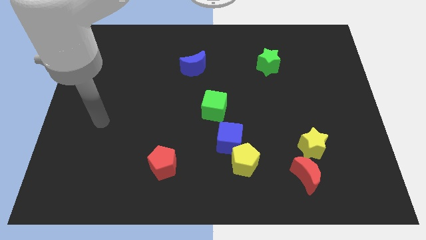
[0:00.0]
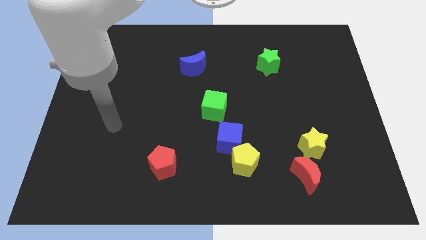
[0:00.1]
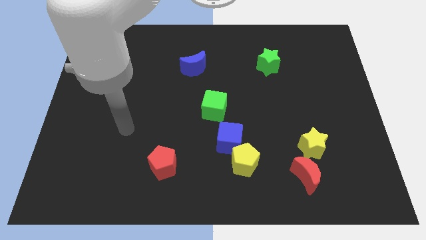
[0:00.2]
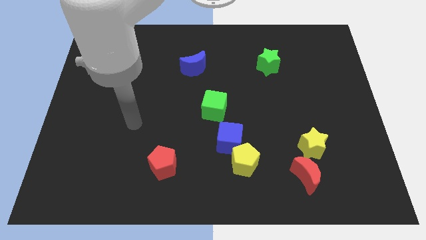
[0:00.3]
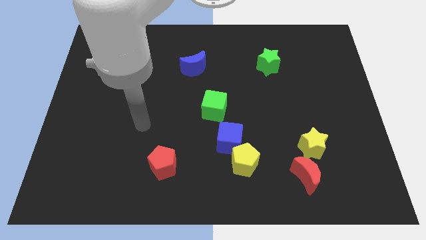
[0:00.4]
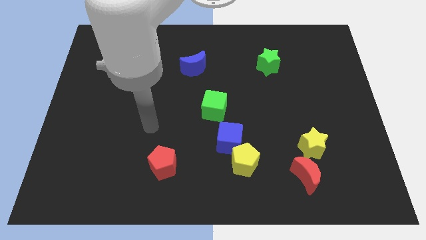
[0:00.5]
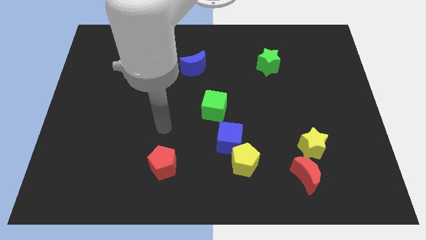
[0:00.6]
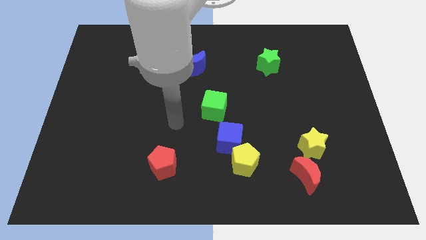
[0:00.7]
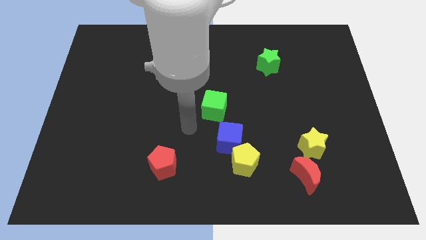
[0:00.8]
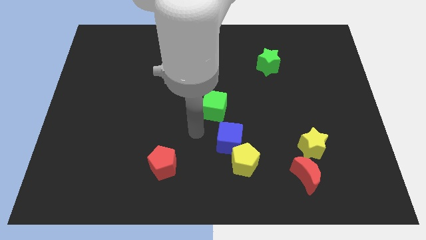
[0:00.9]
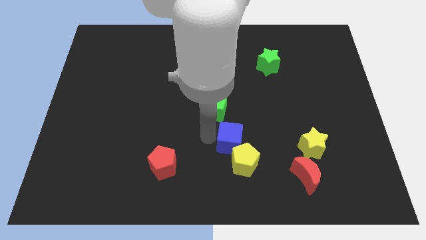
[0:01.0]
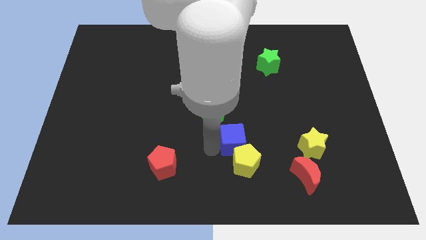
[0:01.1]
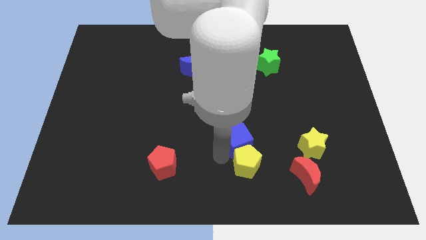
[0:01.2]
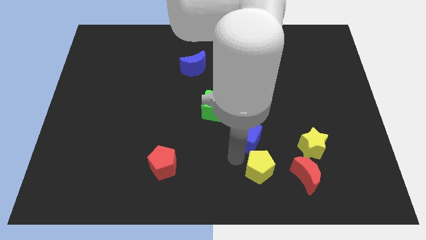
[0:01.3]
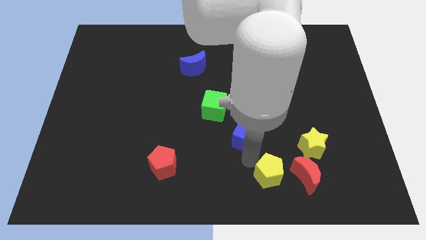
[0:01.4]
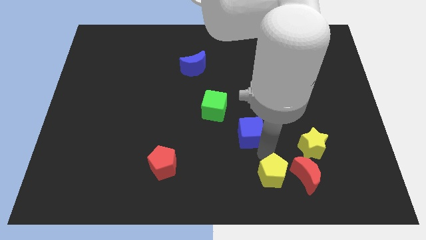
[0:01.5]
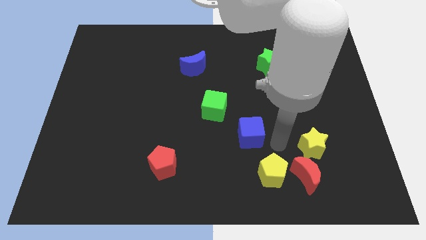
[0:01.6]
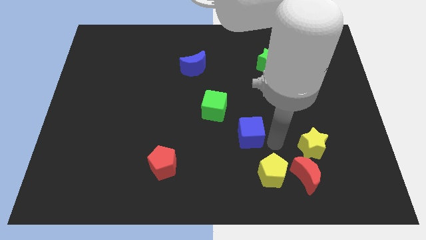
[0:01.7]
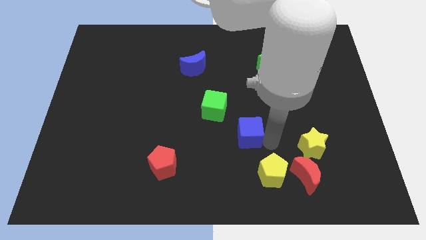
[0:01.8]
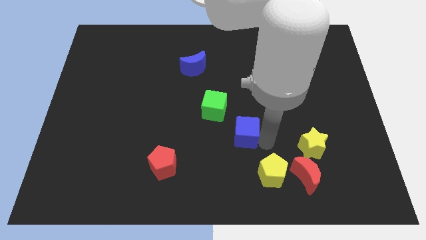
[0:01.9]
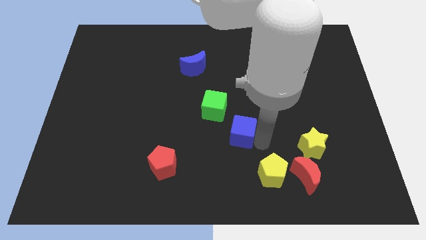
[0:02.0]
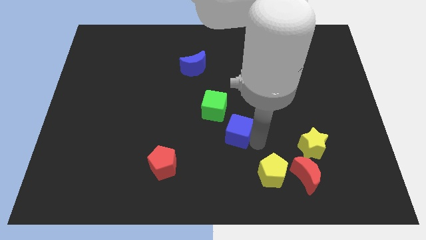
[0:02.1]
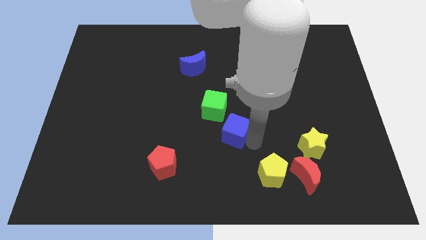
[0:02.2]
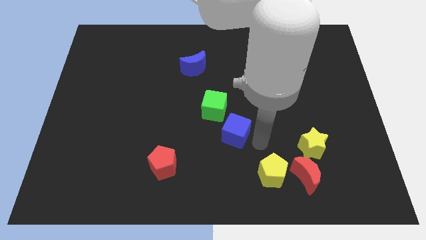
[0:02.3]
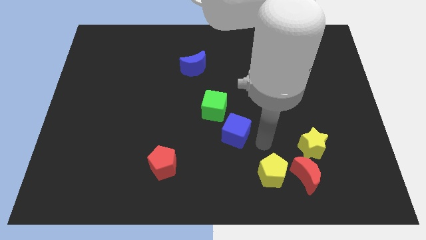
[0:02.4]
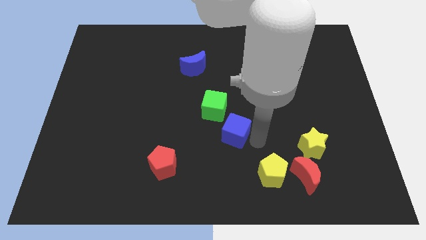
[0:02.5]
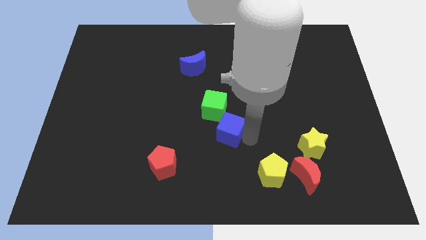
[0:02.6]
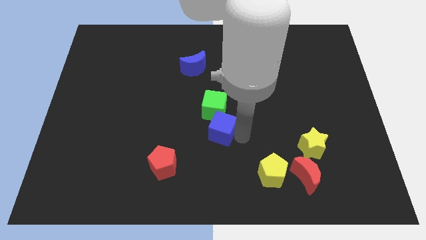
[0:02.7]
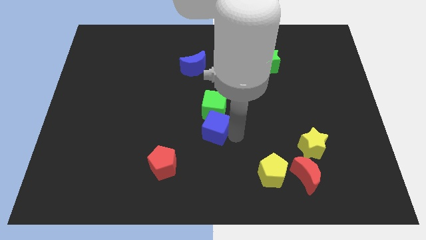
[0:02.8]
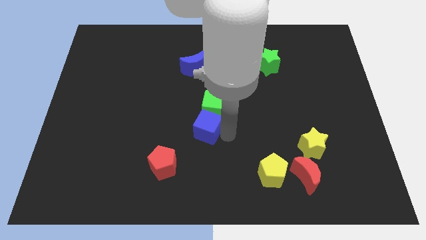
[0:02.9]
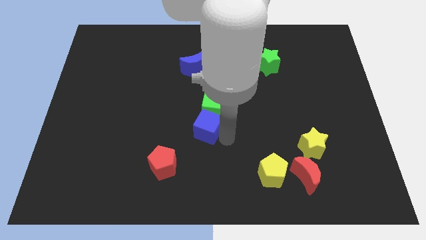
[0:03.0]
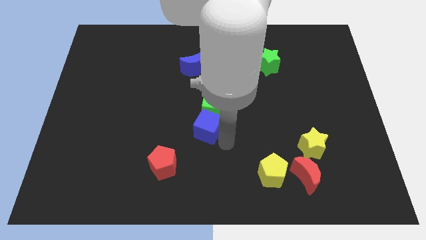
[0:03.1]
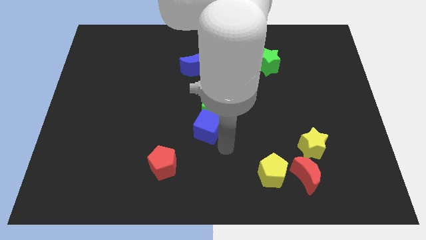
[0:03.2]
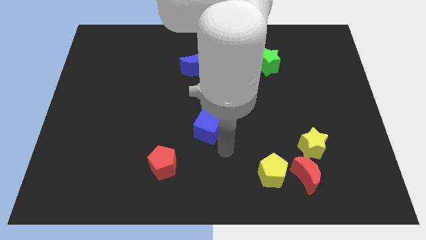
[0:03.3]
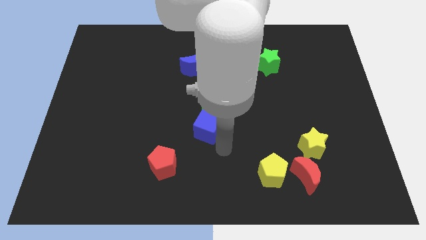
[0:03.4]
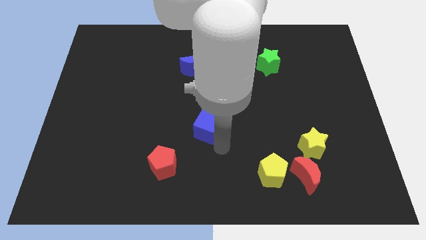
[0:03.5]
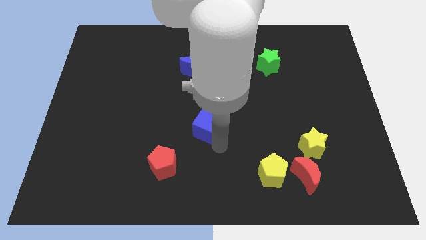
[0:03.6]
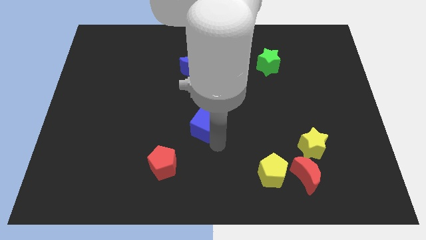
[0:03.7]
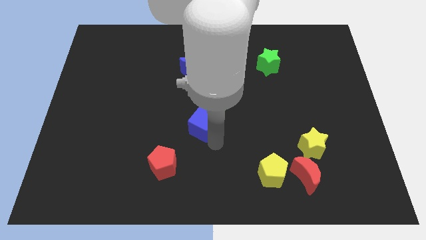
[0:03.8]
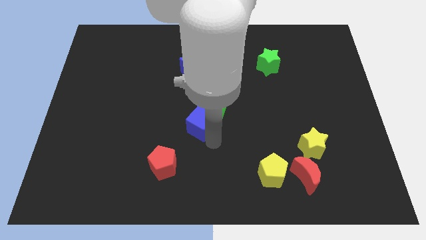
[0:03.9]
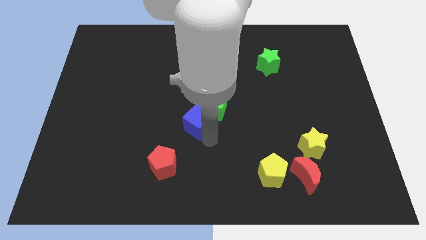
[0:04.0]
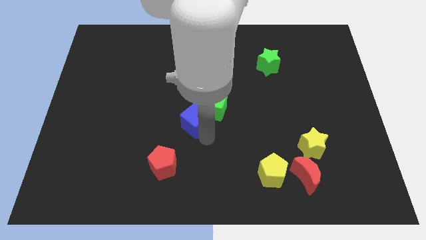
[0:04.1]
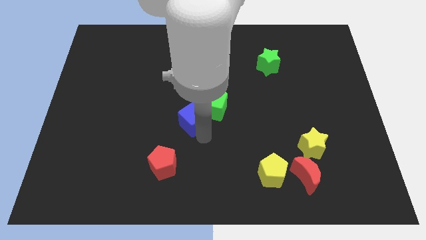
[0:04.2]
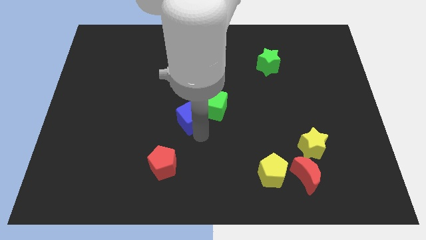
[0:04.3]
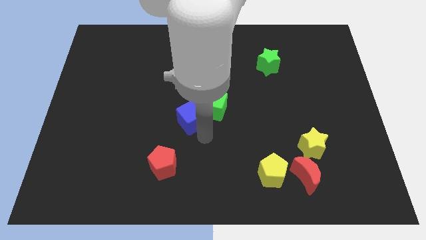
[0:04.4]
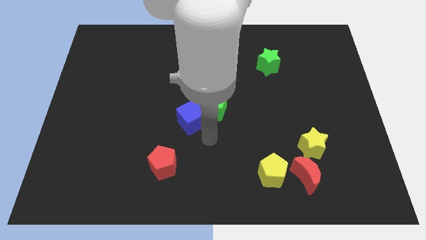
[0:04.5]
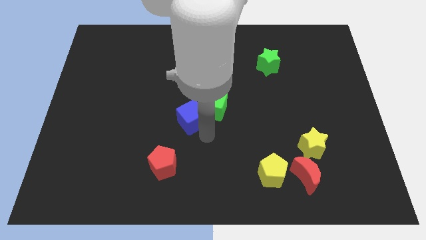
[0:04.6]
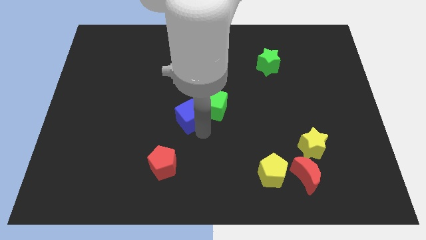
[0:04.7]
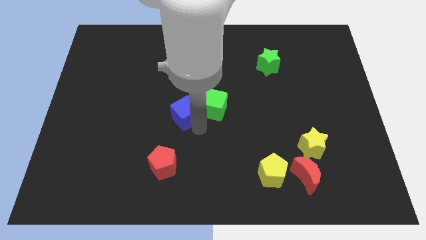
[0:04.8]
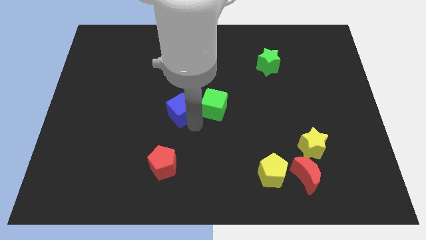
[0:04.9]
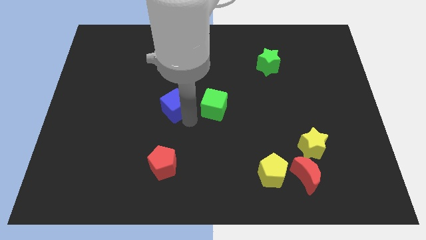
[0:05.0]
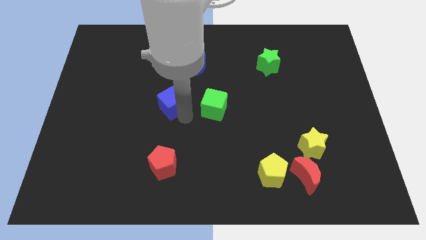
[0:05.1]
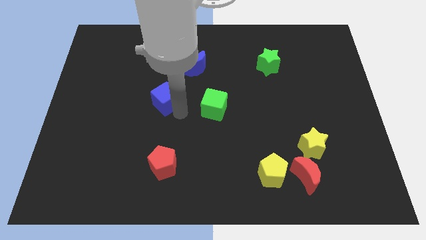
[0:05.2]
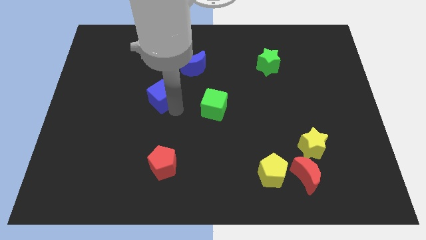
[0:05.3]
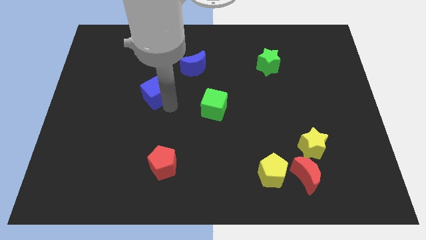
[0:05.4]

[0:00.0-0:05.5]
push the blue cube upwards and then to the left

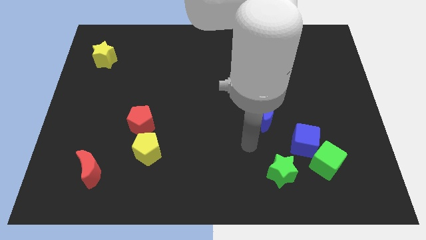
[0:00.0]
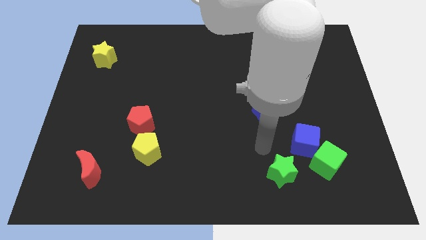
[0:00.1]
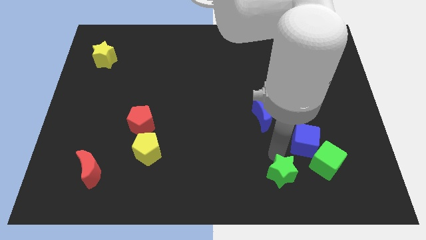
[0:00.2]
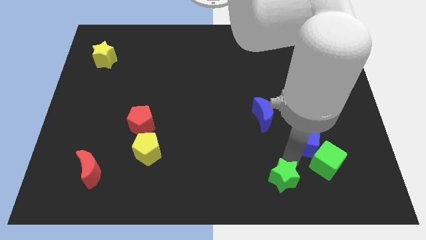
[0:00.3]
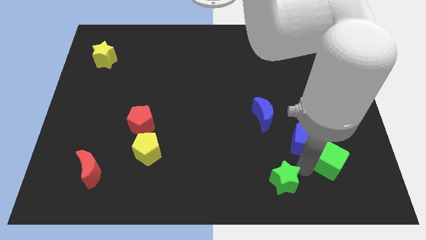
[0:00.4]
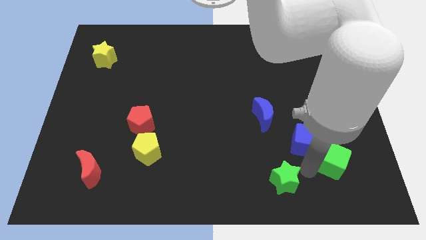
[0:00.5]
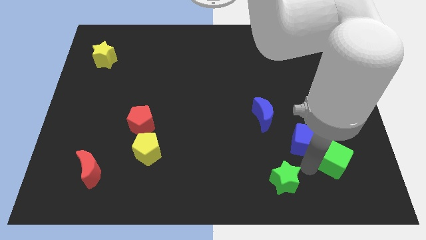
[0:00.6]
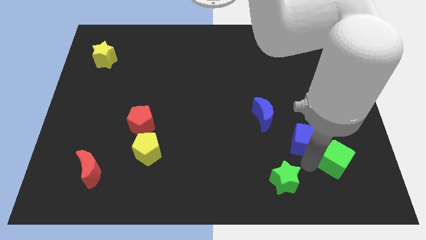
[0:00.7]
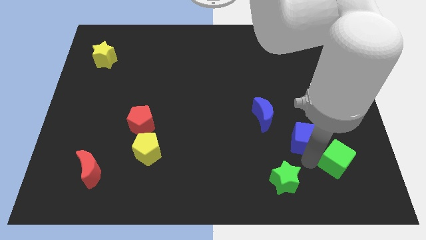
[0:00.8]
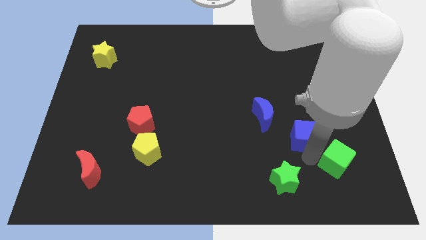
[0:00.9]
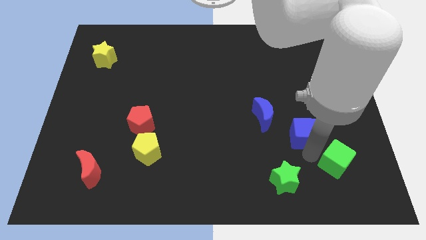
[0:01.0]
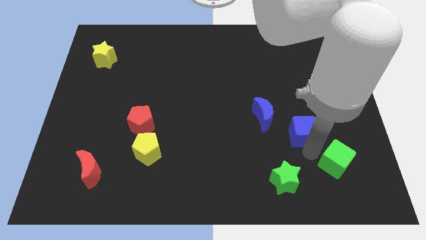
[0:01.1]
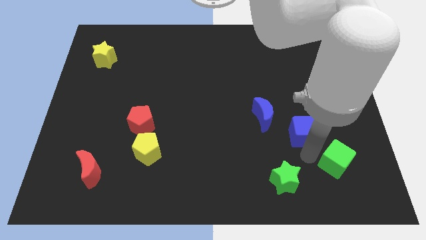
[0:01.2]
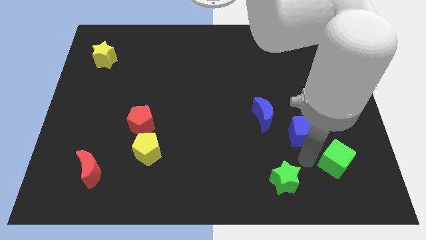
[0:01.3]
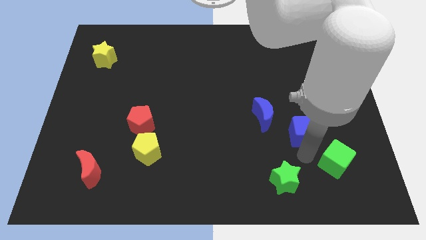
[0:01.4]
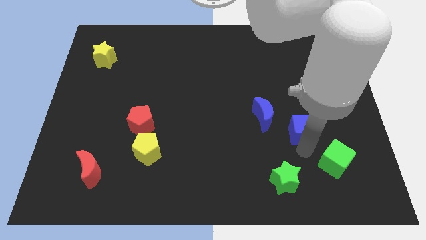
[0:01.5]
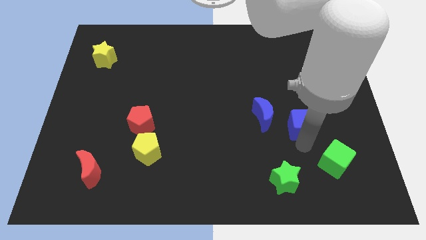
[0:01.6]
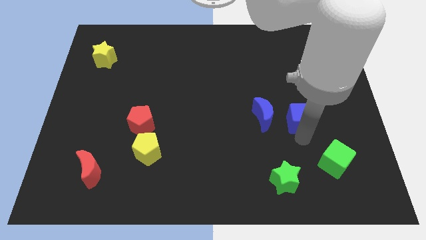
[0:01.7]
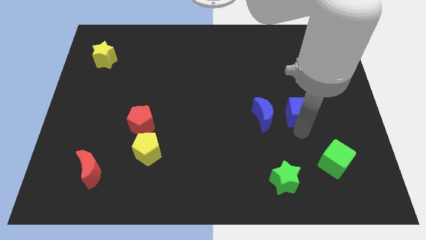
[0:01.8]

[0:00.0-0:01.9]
slightly push the blue cube upwards

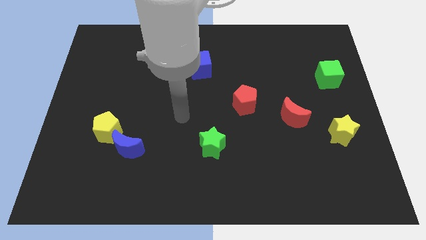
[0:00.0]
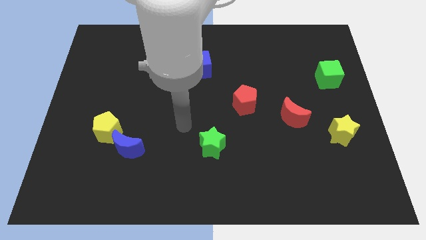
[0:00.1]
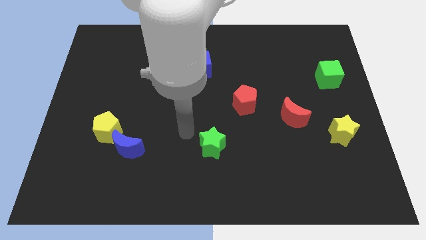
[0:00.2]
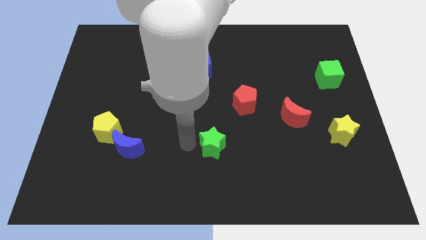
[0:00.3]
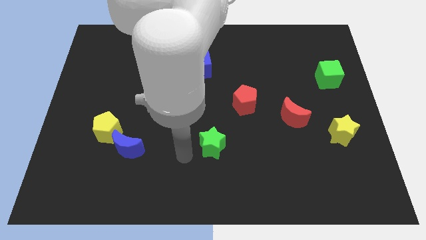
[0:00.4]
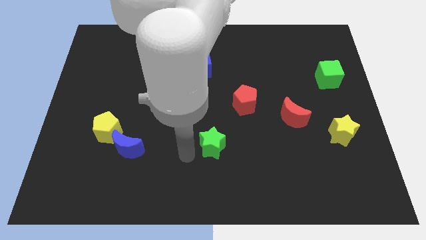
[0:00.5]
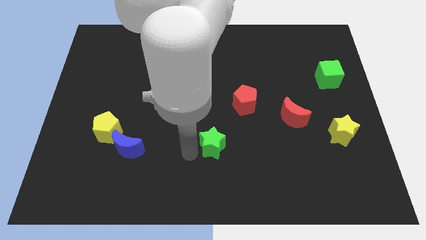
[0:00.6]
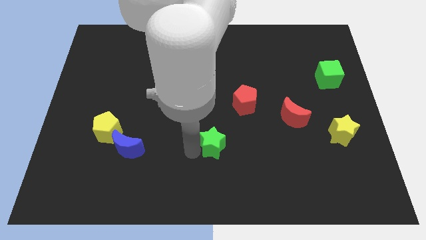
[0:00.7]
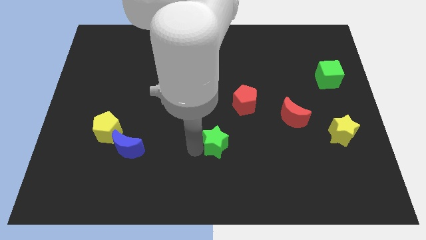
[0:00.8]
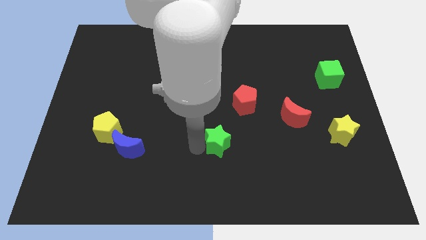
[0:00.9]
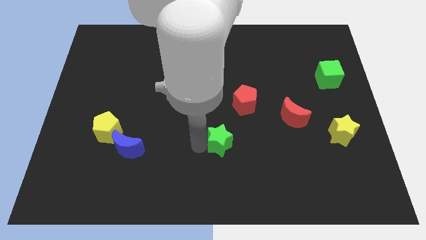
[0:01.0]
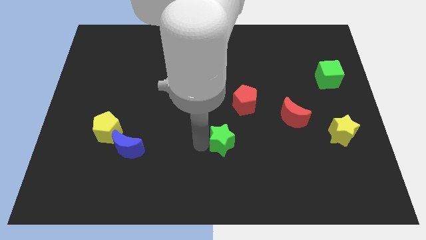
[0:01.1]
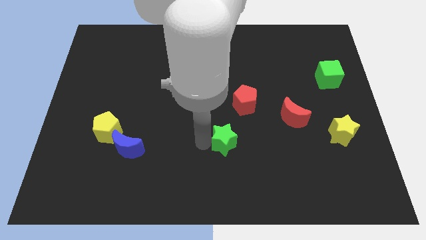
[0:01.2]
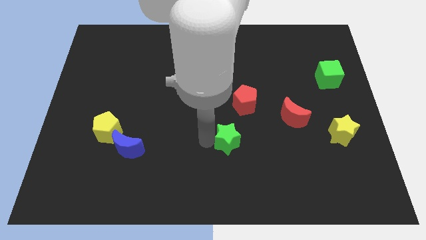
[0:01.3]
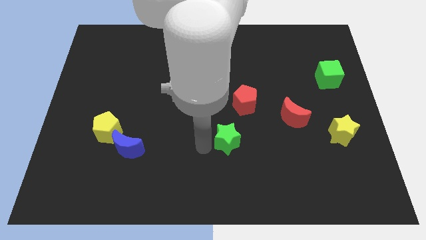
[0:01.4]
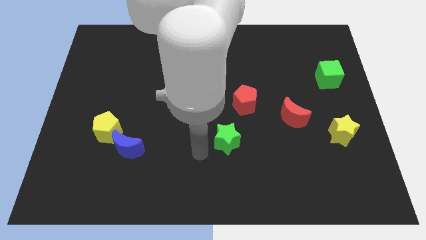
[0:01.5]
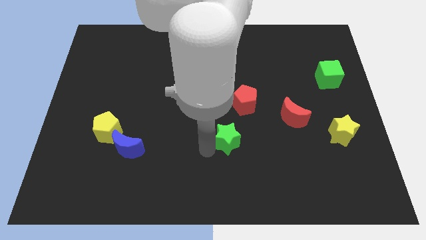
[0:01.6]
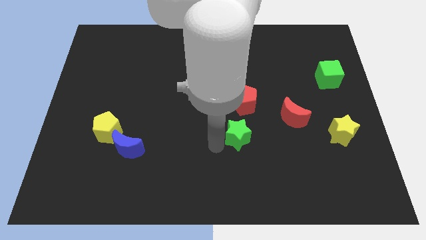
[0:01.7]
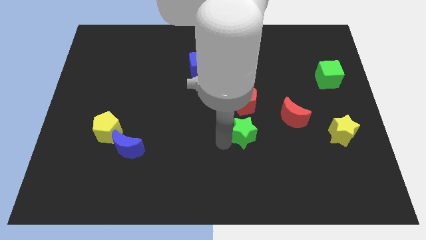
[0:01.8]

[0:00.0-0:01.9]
slightly slide the green star up and to the right
